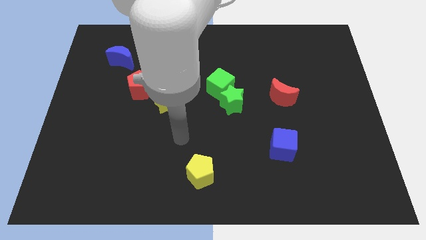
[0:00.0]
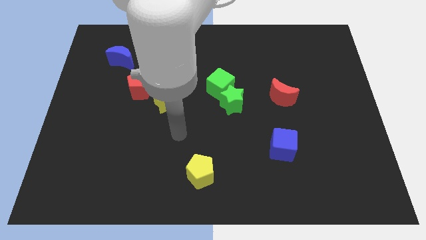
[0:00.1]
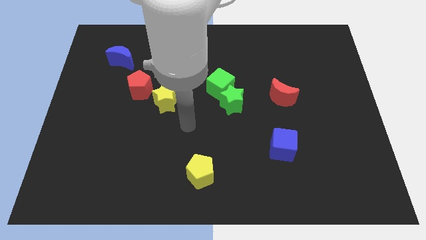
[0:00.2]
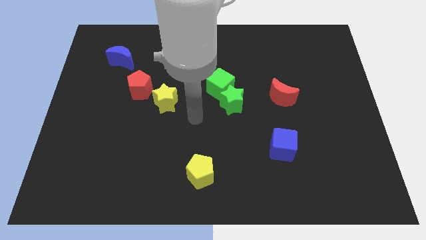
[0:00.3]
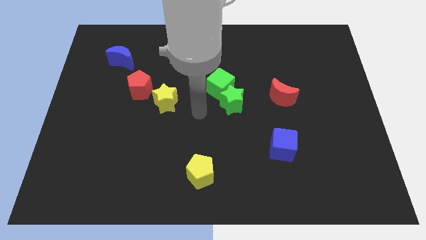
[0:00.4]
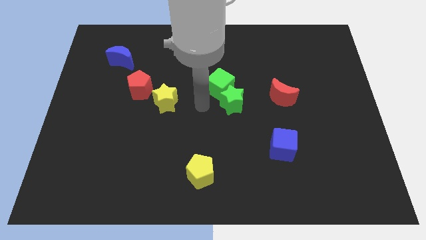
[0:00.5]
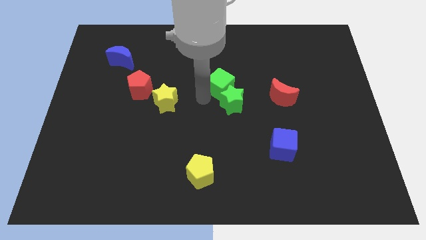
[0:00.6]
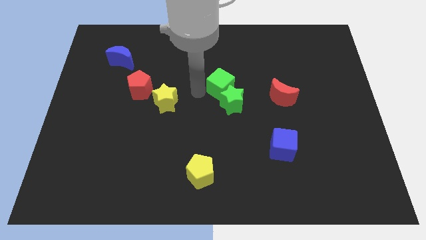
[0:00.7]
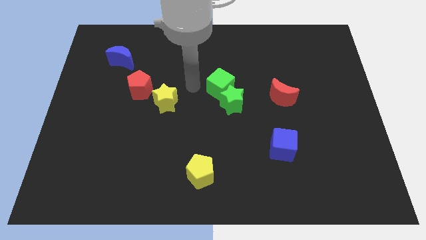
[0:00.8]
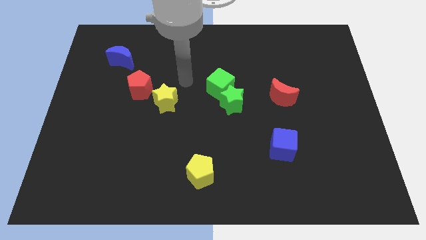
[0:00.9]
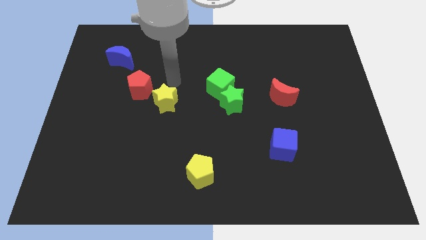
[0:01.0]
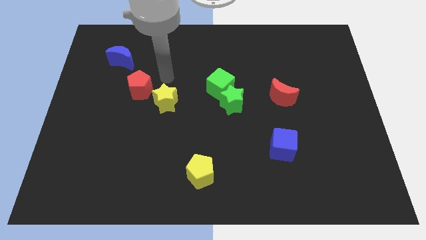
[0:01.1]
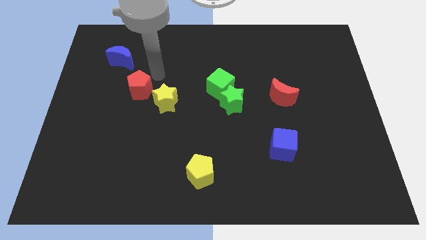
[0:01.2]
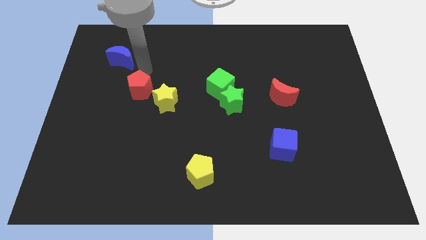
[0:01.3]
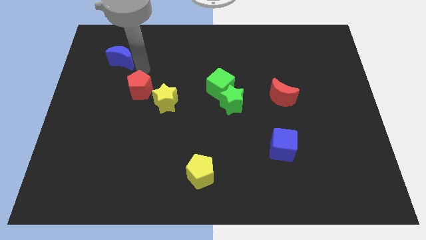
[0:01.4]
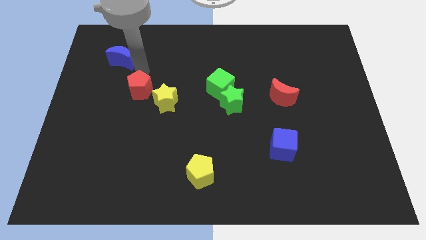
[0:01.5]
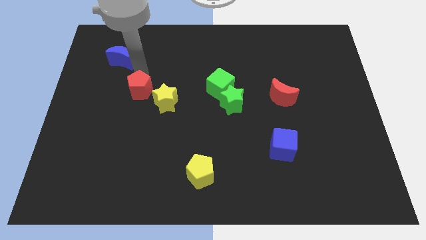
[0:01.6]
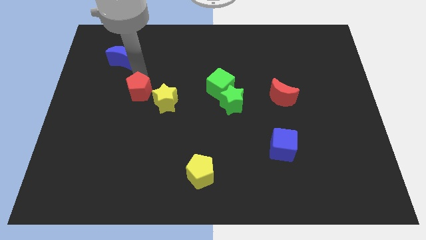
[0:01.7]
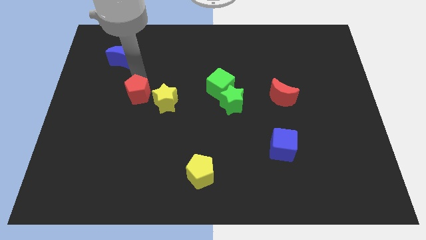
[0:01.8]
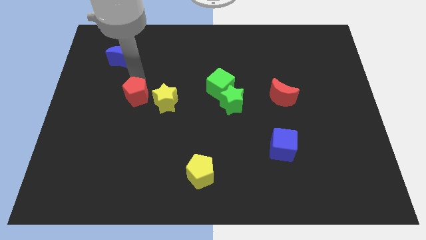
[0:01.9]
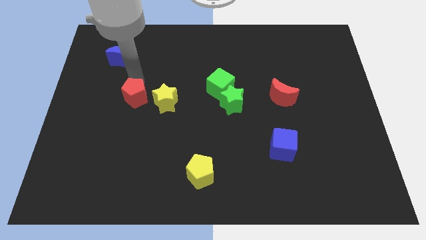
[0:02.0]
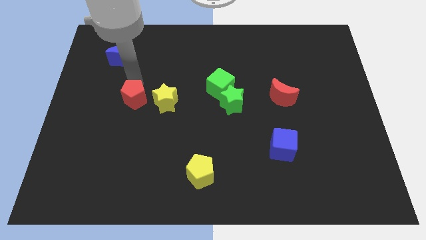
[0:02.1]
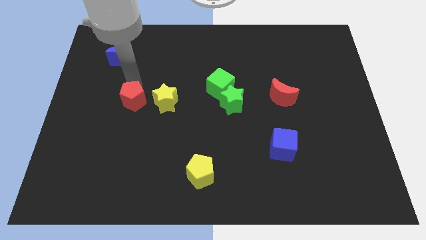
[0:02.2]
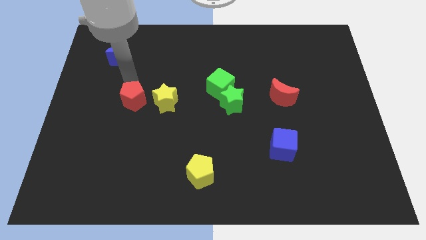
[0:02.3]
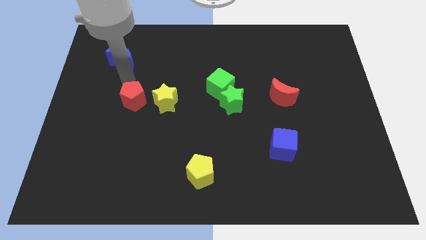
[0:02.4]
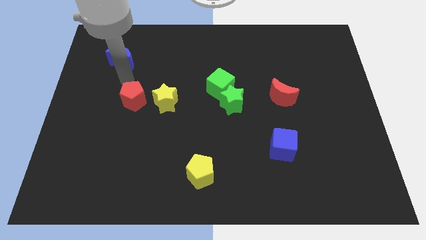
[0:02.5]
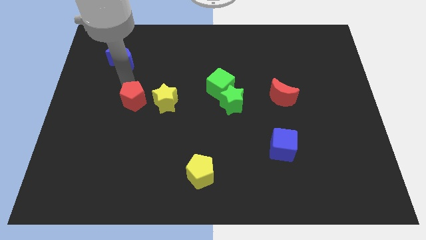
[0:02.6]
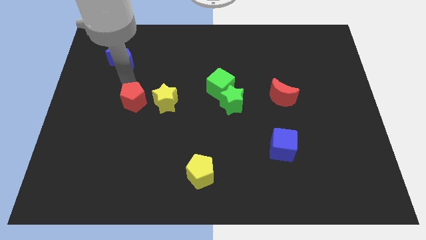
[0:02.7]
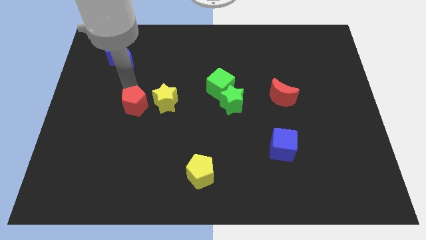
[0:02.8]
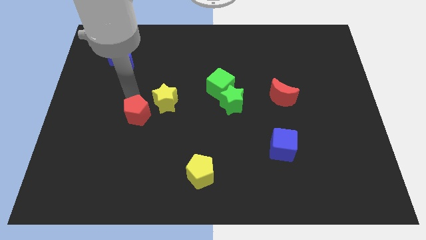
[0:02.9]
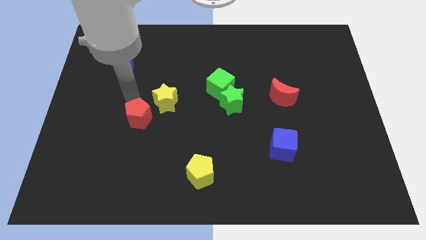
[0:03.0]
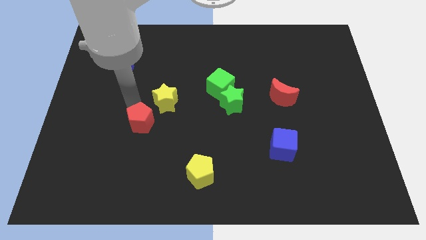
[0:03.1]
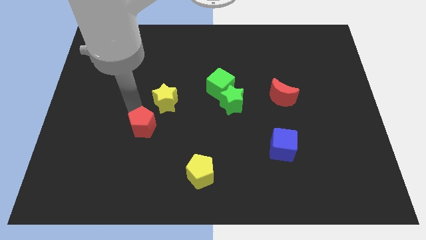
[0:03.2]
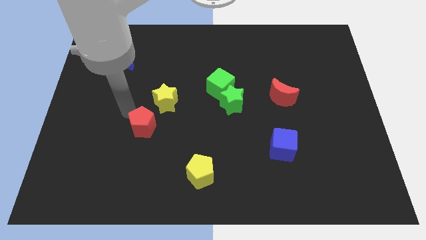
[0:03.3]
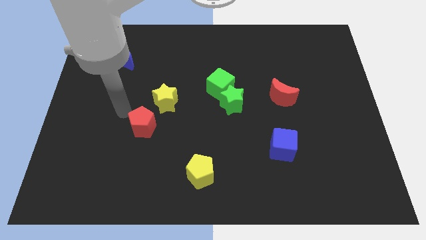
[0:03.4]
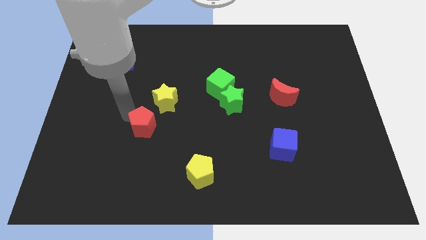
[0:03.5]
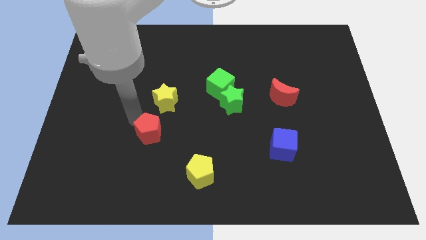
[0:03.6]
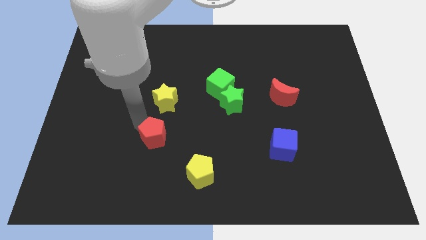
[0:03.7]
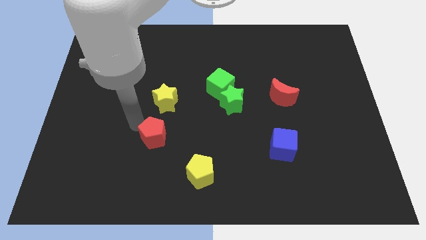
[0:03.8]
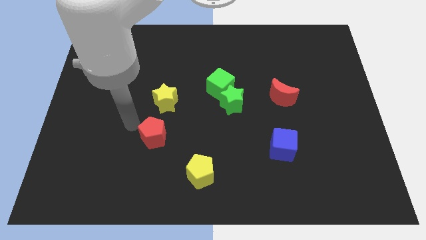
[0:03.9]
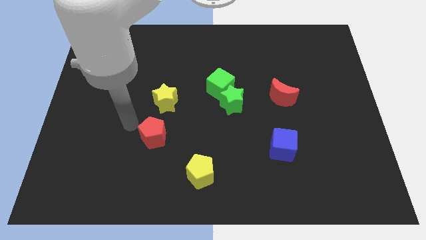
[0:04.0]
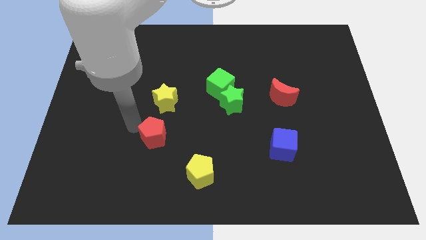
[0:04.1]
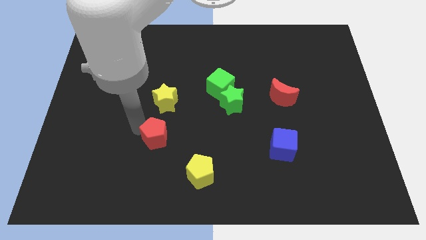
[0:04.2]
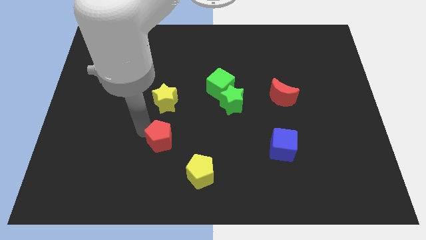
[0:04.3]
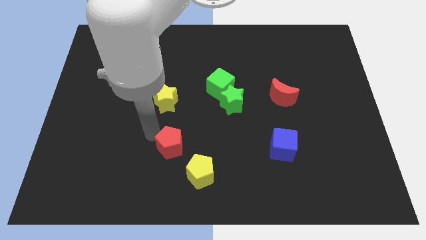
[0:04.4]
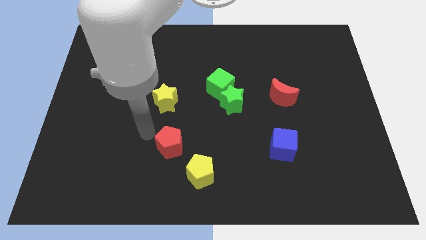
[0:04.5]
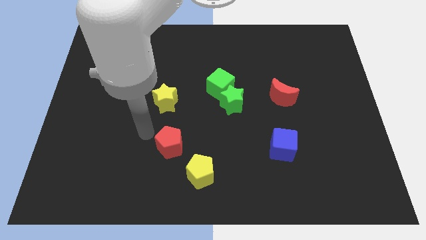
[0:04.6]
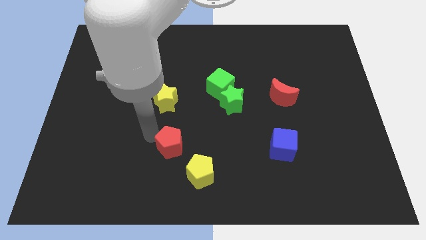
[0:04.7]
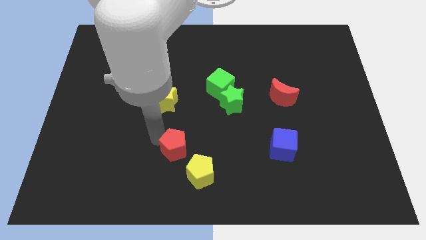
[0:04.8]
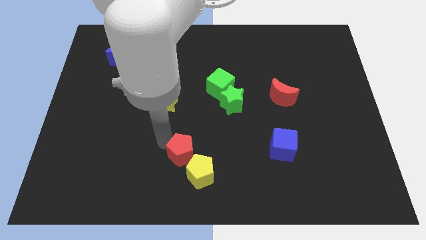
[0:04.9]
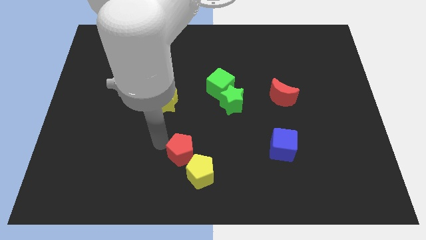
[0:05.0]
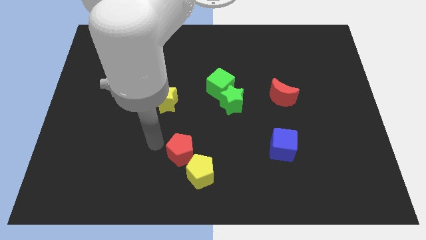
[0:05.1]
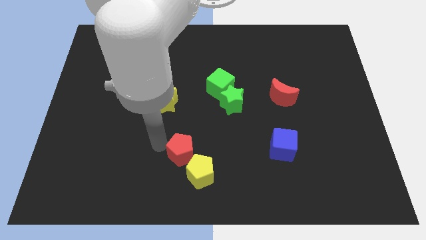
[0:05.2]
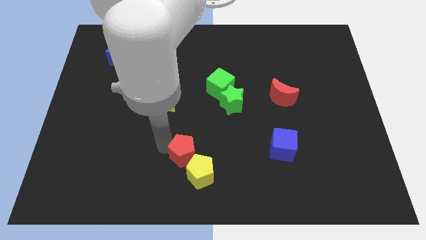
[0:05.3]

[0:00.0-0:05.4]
push the red pentagon to the yellow pentagon

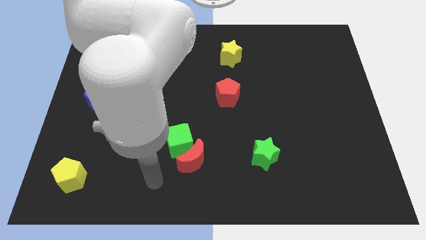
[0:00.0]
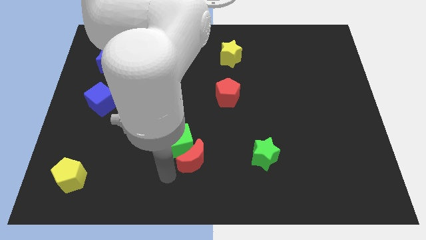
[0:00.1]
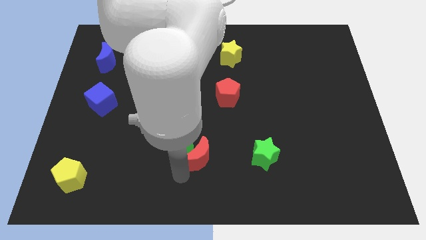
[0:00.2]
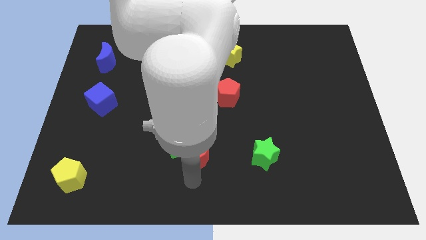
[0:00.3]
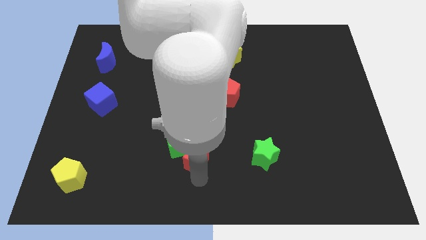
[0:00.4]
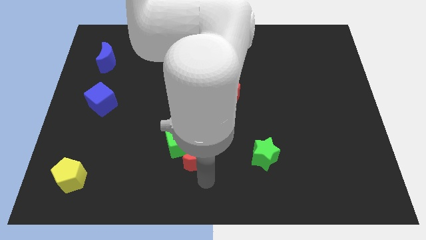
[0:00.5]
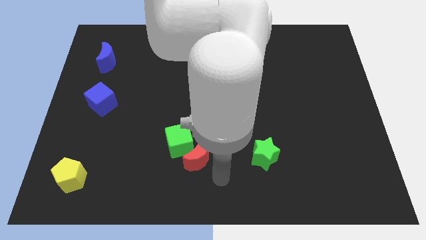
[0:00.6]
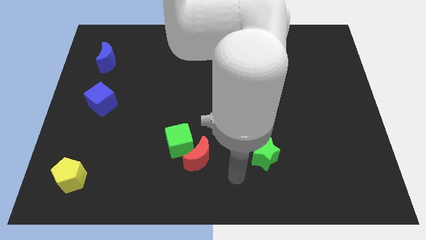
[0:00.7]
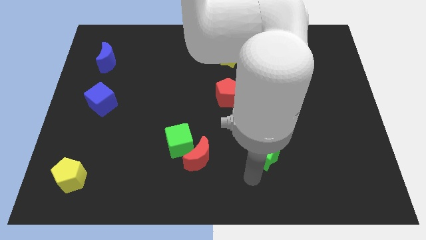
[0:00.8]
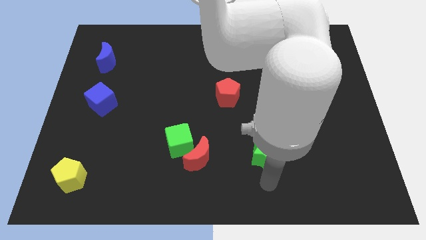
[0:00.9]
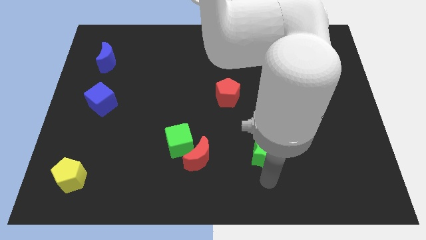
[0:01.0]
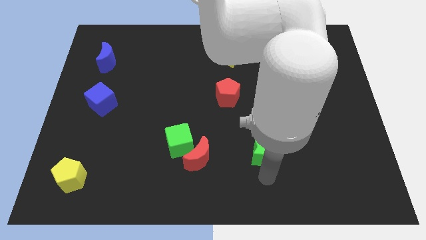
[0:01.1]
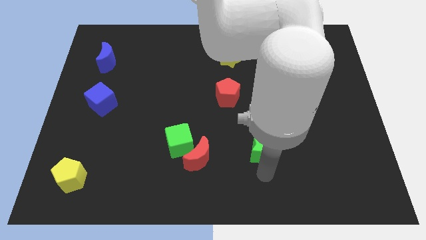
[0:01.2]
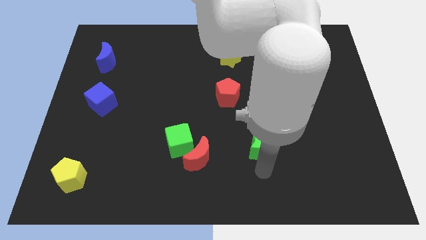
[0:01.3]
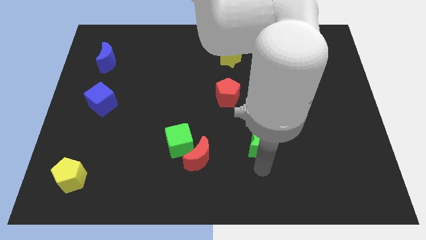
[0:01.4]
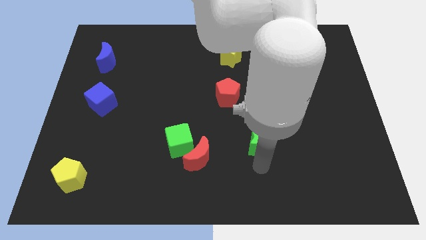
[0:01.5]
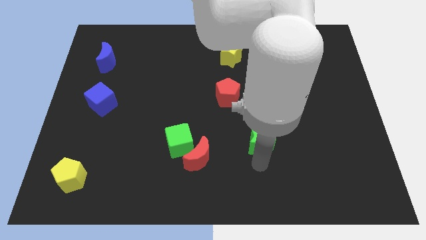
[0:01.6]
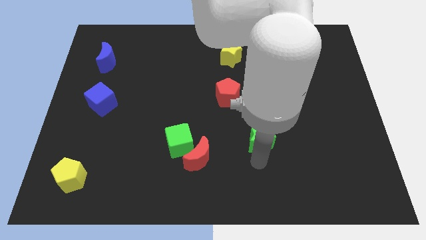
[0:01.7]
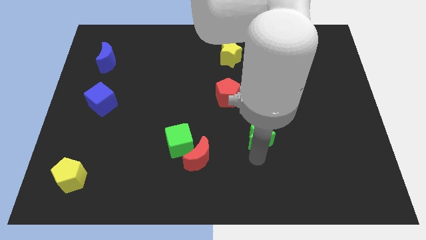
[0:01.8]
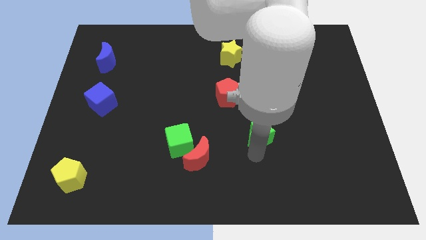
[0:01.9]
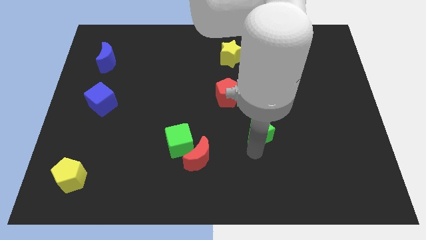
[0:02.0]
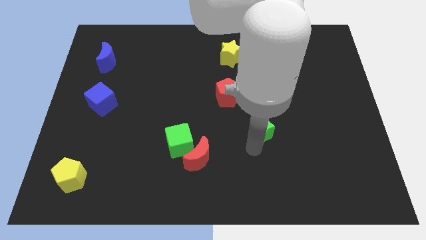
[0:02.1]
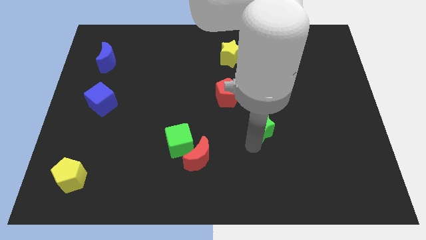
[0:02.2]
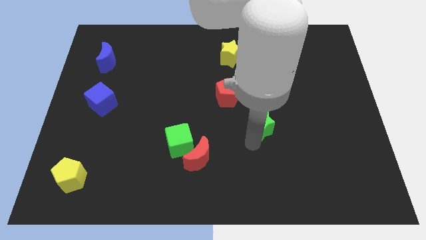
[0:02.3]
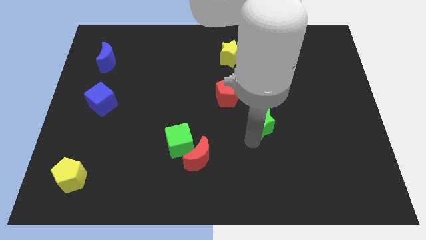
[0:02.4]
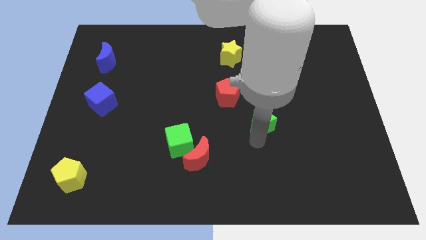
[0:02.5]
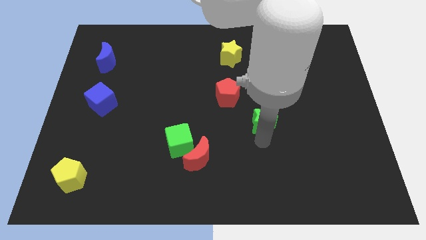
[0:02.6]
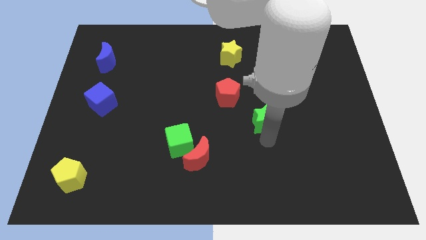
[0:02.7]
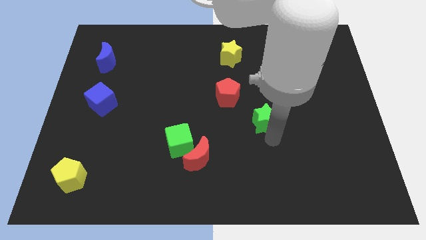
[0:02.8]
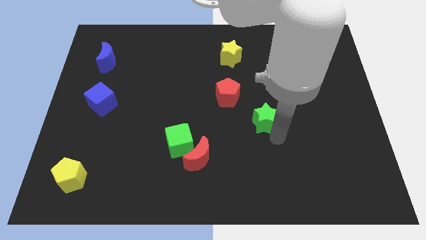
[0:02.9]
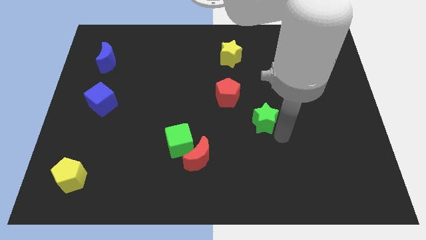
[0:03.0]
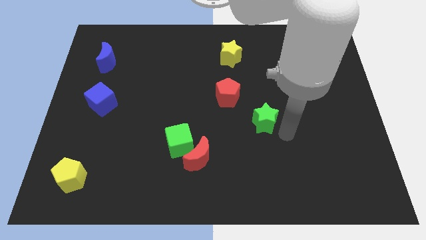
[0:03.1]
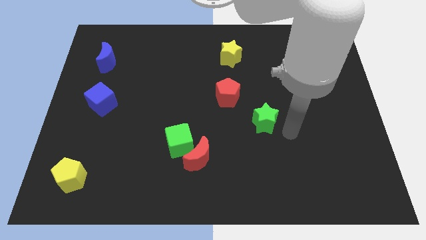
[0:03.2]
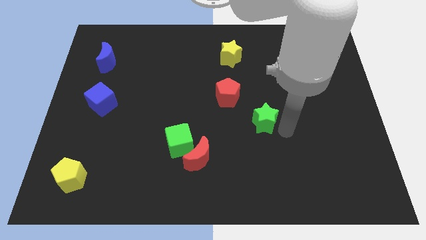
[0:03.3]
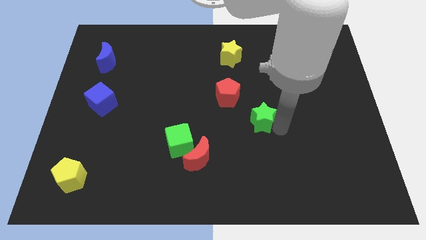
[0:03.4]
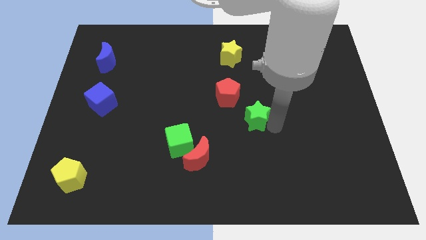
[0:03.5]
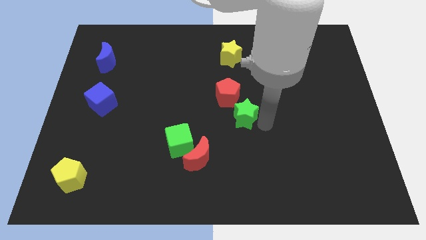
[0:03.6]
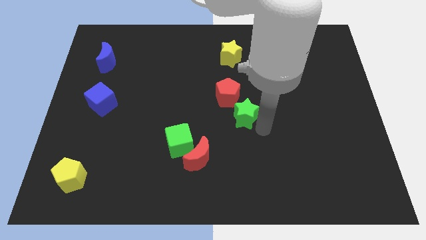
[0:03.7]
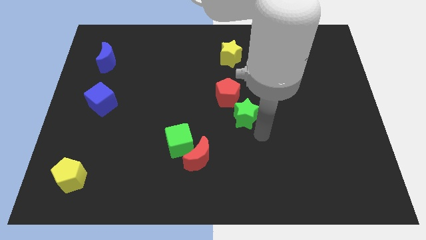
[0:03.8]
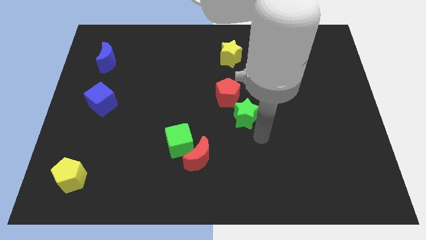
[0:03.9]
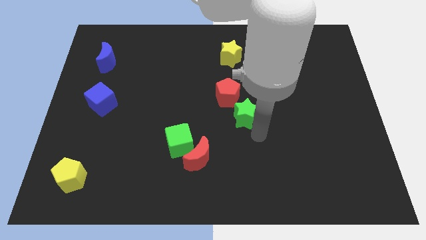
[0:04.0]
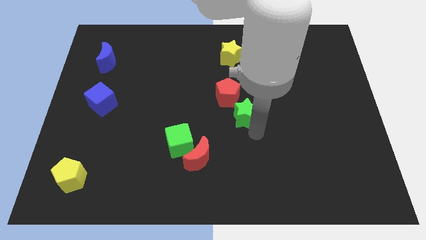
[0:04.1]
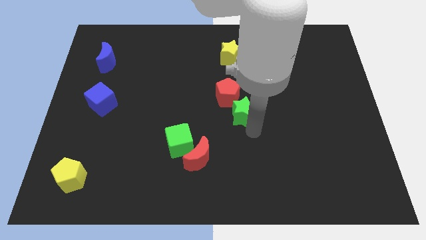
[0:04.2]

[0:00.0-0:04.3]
move the green star to the red pentagon
